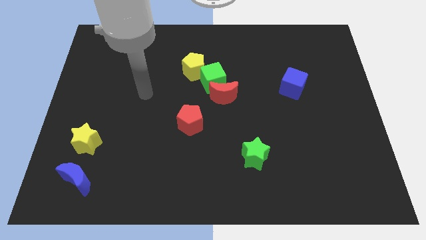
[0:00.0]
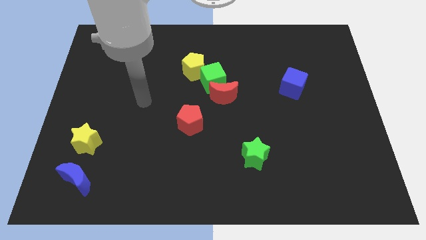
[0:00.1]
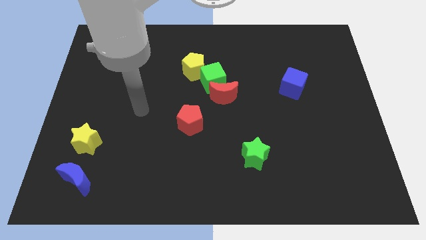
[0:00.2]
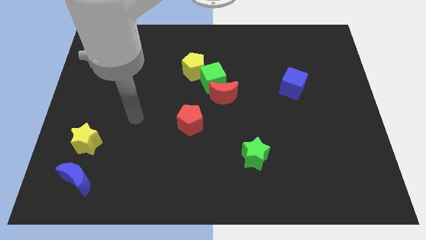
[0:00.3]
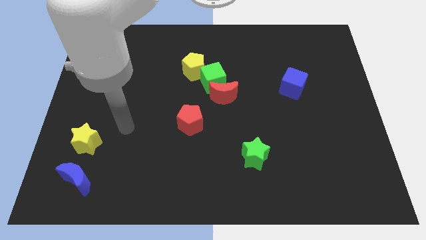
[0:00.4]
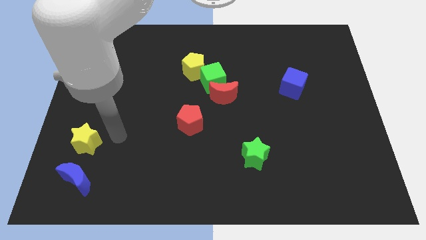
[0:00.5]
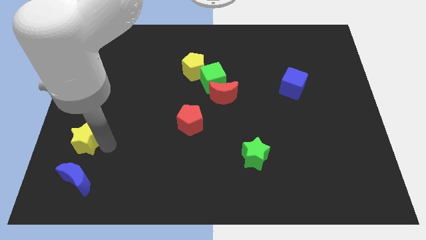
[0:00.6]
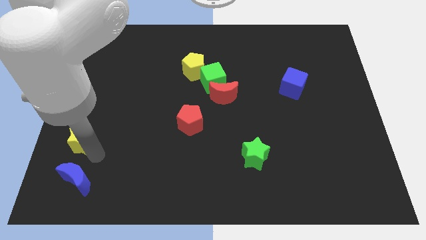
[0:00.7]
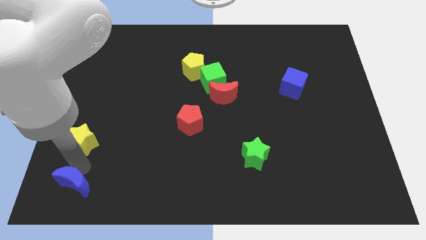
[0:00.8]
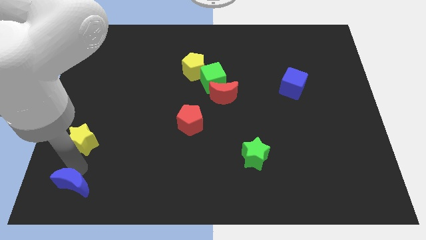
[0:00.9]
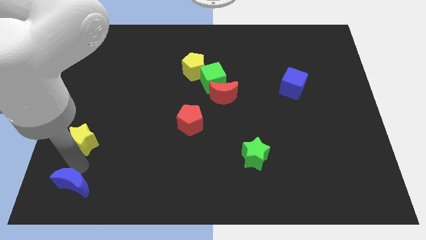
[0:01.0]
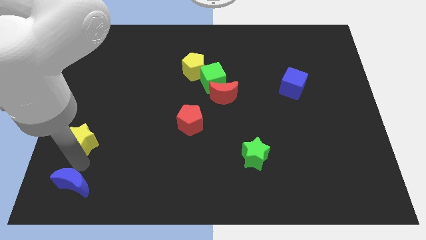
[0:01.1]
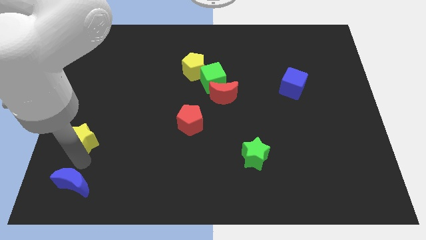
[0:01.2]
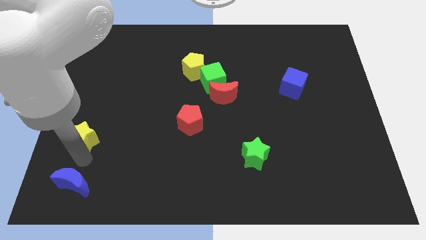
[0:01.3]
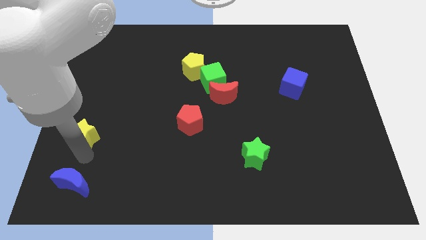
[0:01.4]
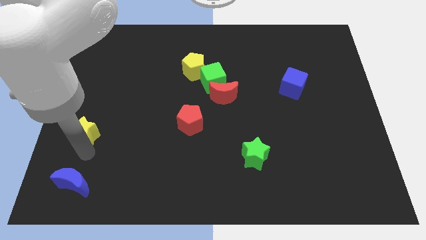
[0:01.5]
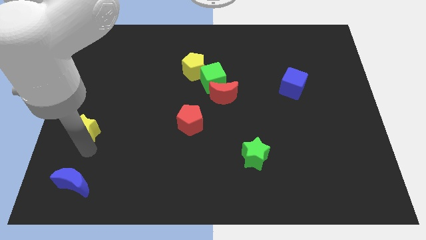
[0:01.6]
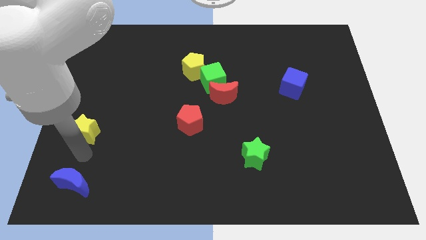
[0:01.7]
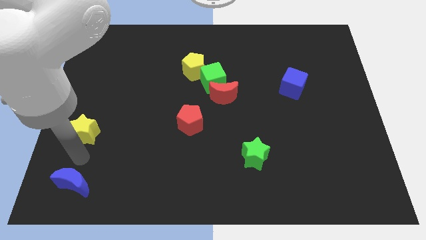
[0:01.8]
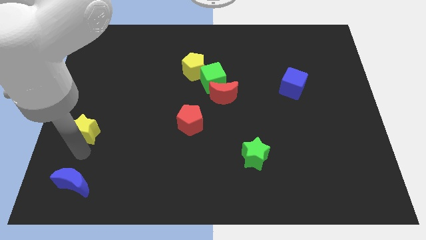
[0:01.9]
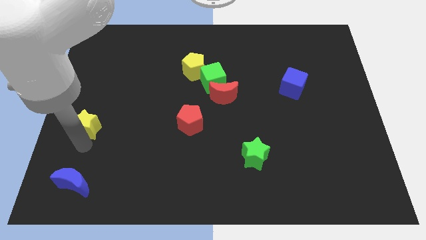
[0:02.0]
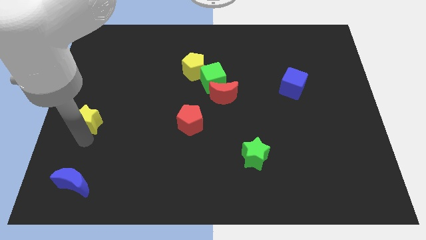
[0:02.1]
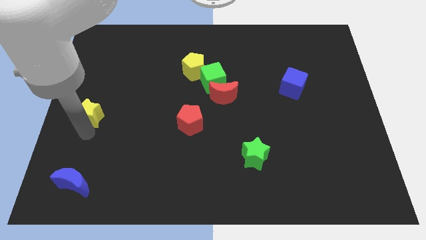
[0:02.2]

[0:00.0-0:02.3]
slightly slide the yellow star up

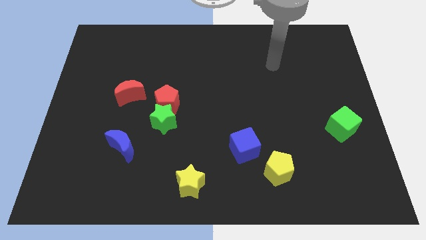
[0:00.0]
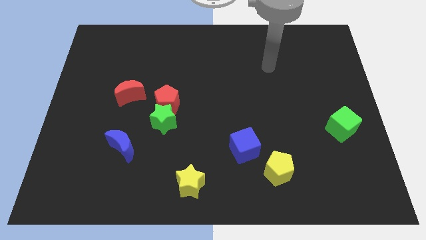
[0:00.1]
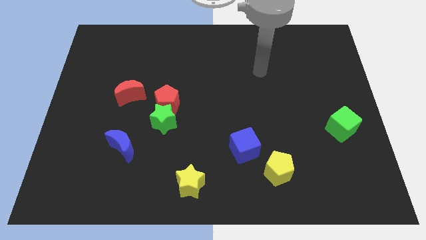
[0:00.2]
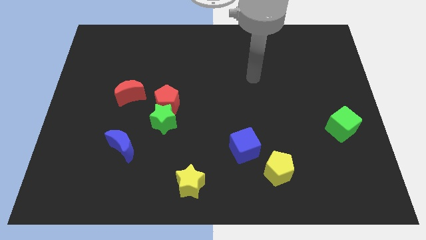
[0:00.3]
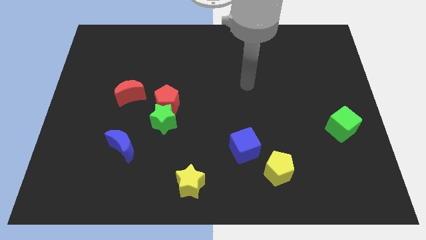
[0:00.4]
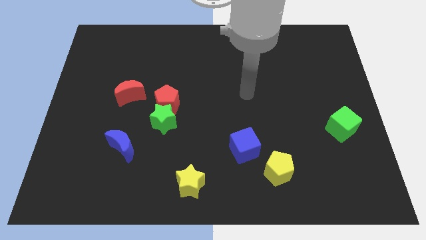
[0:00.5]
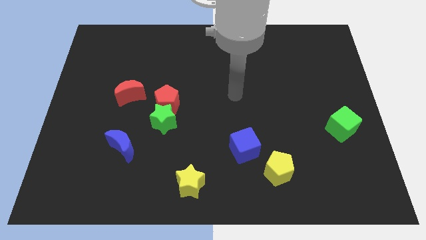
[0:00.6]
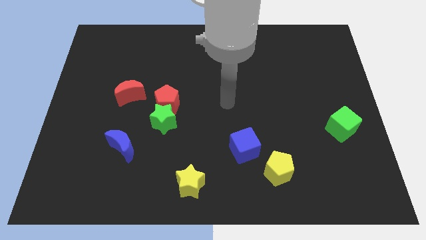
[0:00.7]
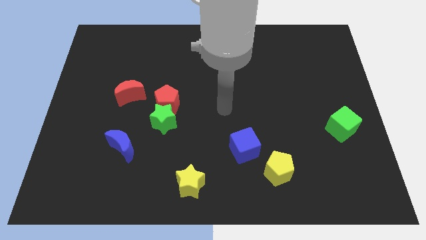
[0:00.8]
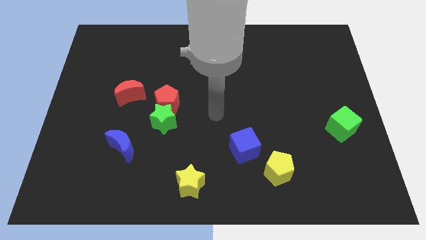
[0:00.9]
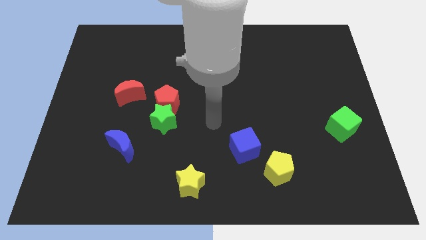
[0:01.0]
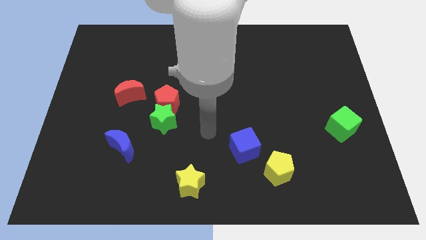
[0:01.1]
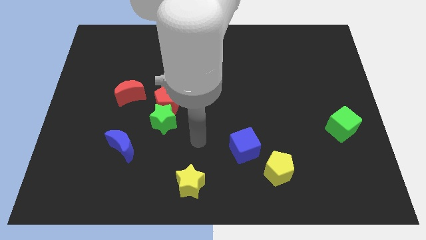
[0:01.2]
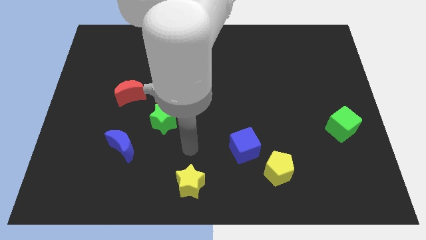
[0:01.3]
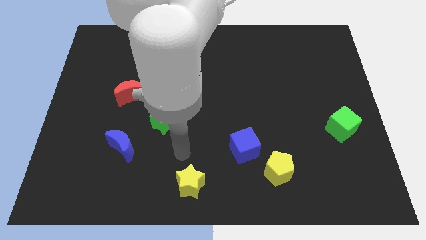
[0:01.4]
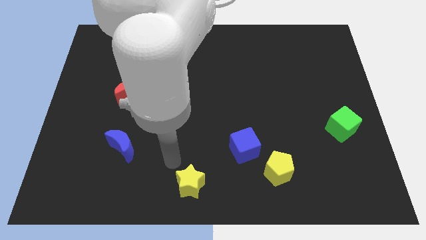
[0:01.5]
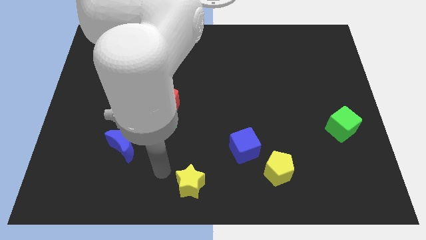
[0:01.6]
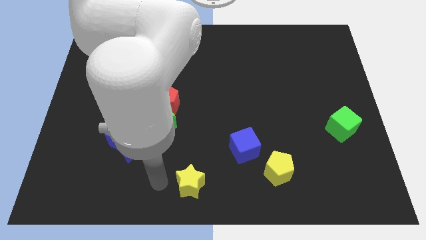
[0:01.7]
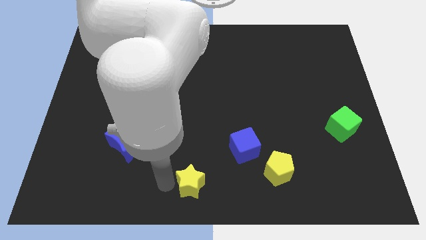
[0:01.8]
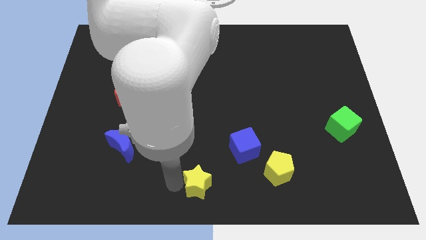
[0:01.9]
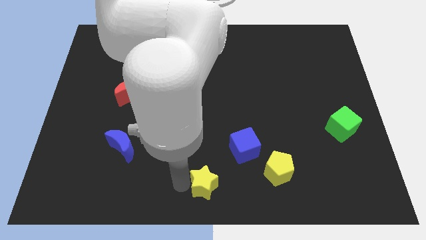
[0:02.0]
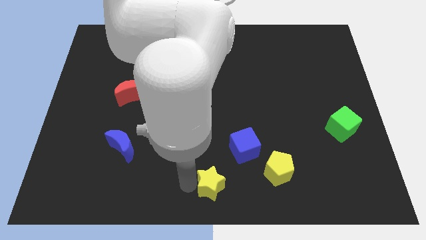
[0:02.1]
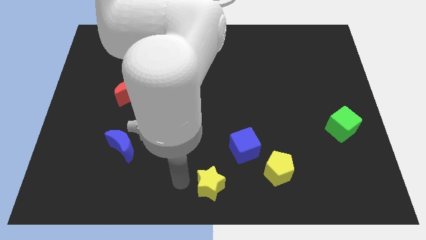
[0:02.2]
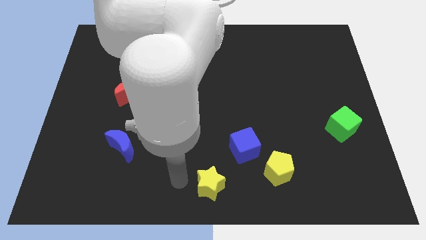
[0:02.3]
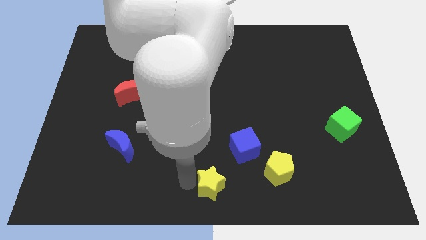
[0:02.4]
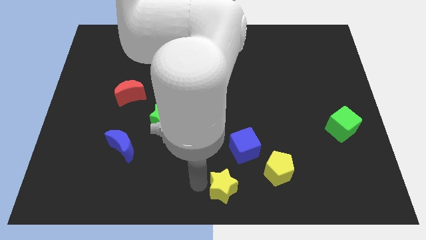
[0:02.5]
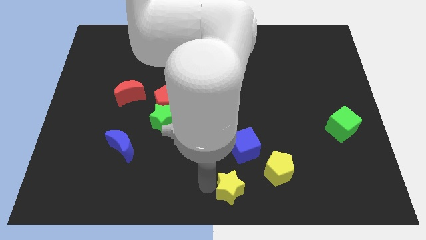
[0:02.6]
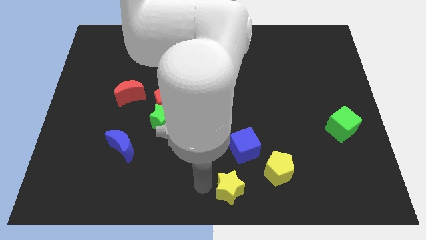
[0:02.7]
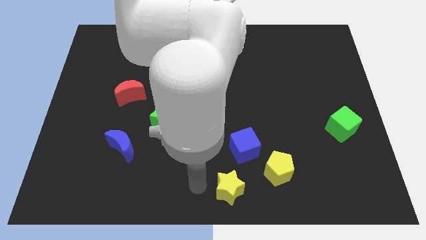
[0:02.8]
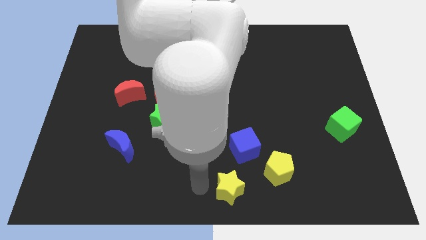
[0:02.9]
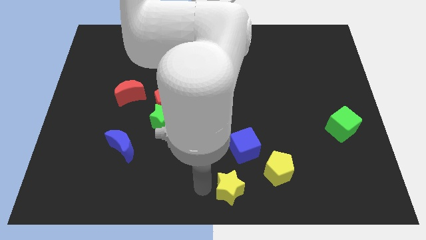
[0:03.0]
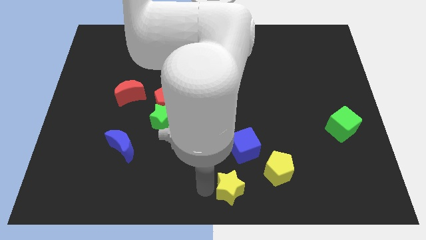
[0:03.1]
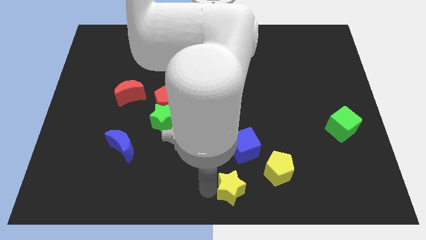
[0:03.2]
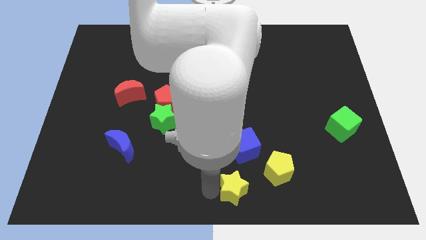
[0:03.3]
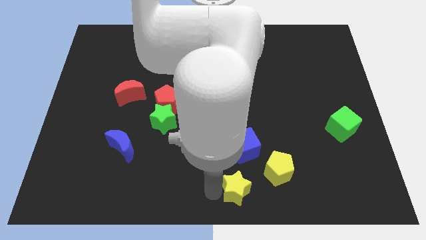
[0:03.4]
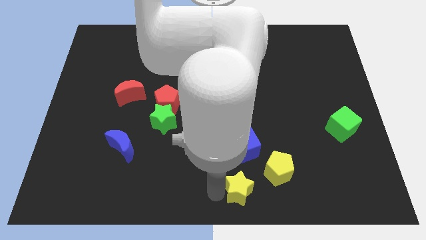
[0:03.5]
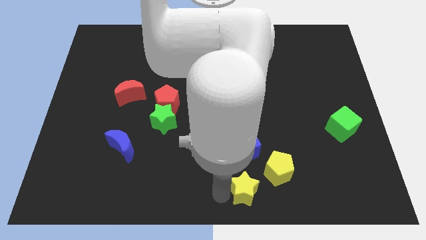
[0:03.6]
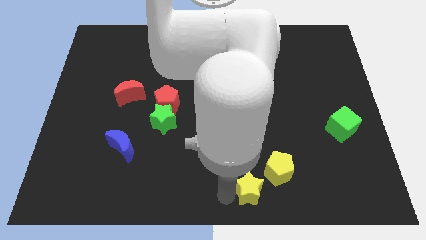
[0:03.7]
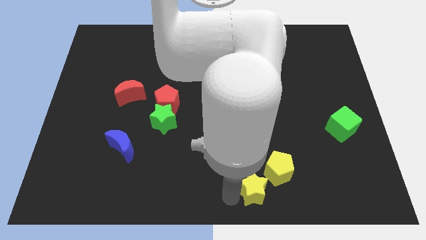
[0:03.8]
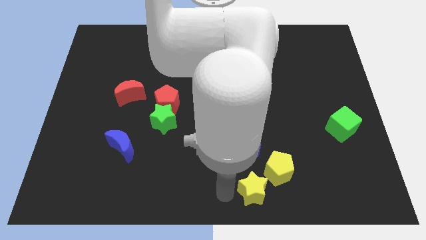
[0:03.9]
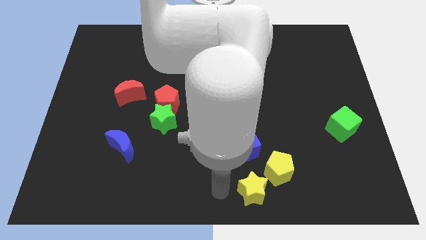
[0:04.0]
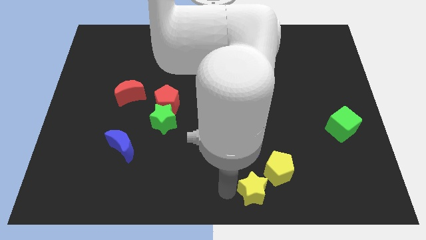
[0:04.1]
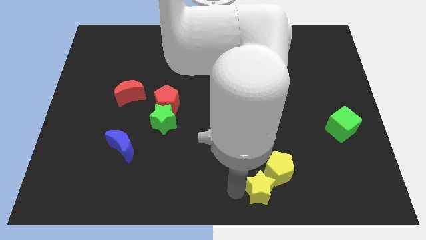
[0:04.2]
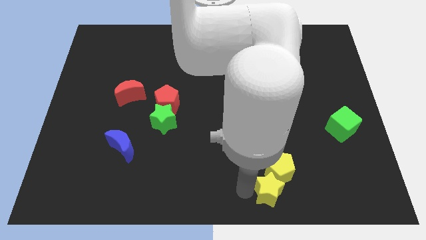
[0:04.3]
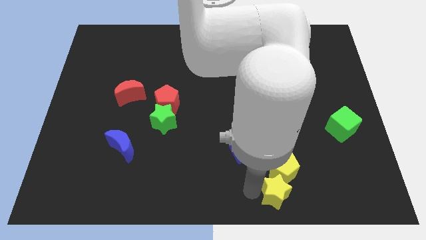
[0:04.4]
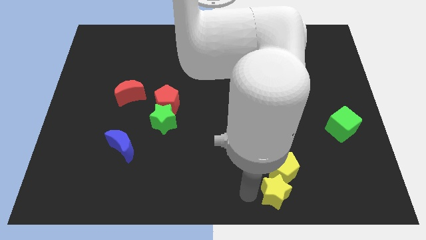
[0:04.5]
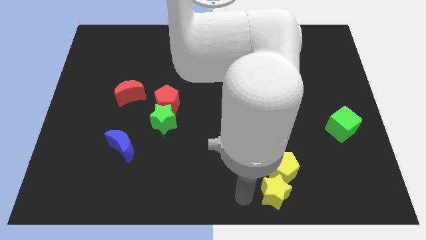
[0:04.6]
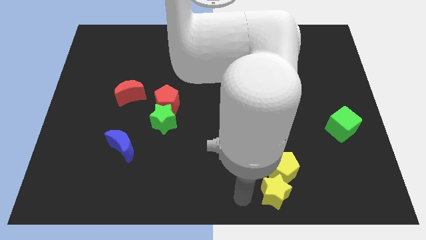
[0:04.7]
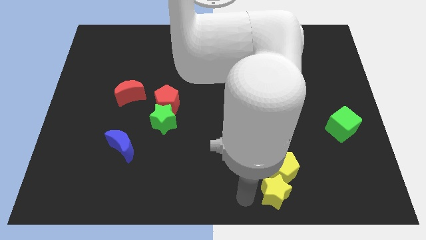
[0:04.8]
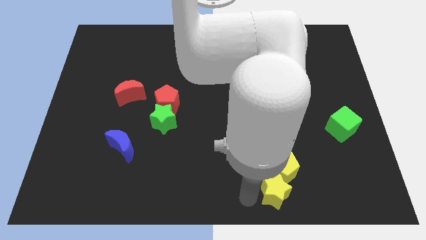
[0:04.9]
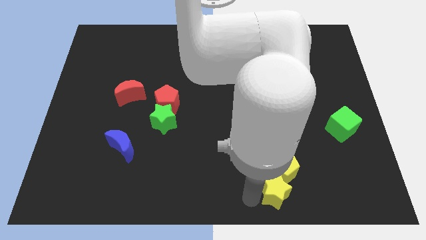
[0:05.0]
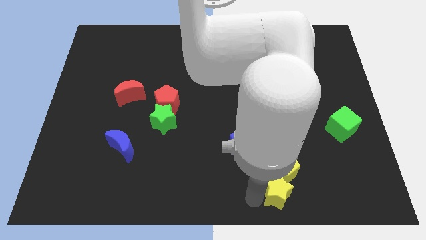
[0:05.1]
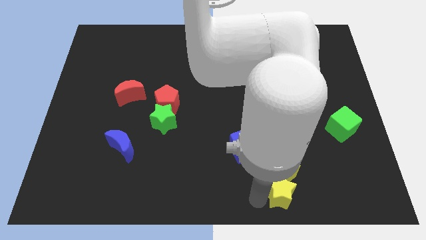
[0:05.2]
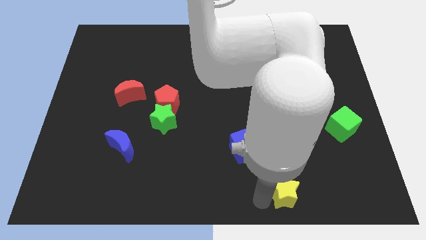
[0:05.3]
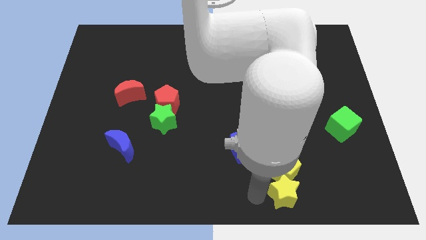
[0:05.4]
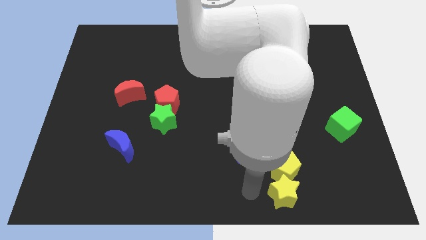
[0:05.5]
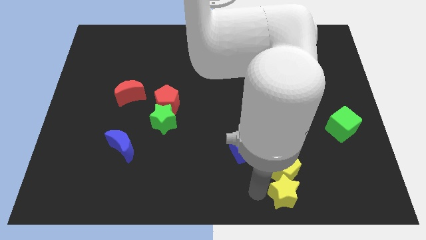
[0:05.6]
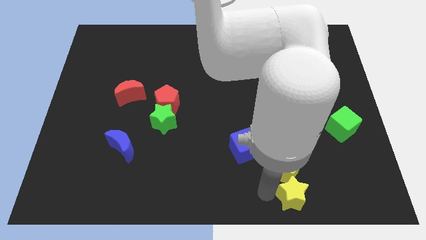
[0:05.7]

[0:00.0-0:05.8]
slide the yellow star right

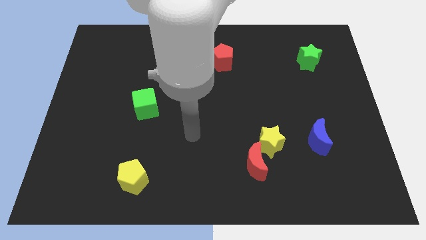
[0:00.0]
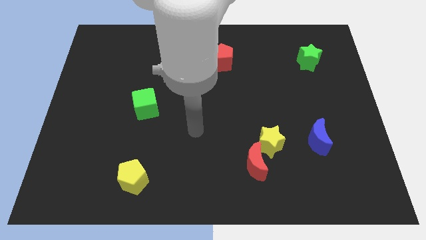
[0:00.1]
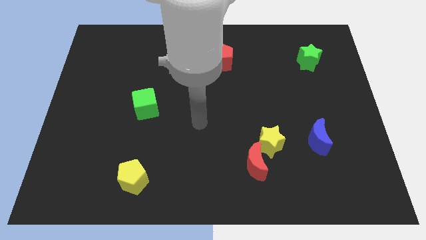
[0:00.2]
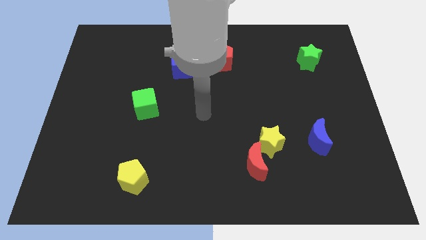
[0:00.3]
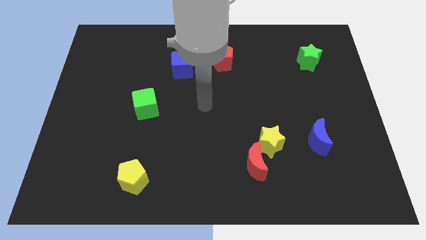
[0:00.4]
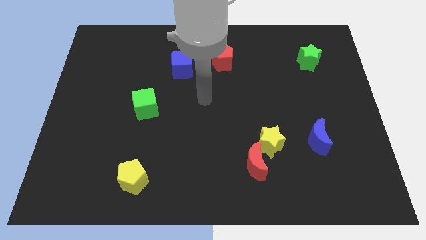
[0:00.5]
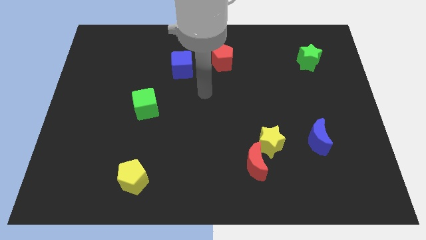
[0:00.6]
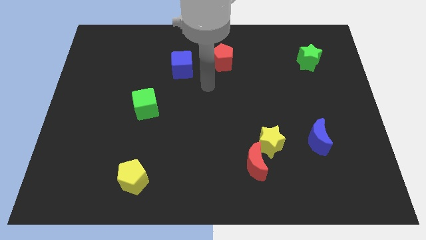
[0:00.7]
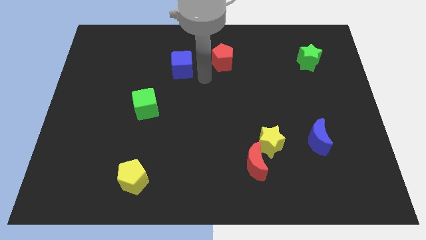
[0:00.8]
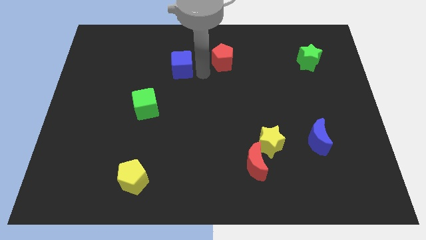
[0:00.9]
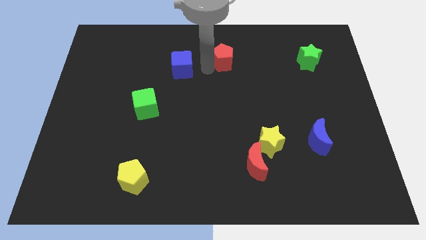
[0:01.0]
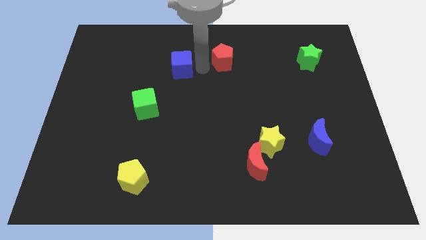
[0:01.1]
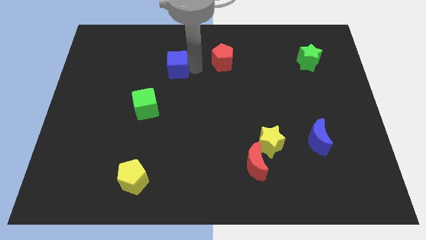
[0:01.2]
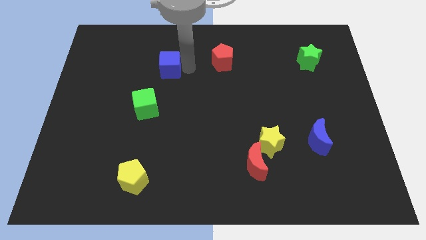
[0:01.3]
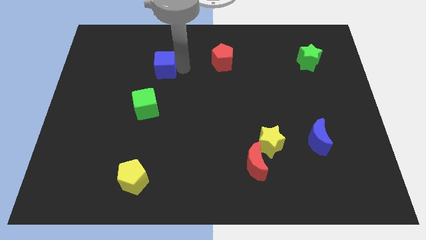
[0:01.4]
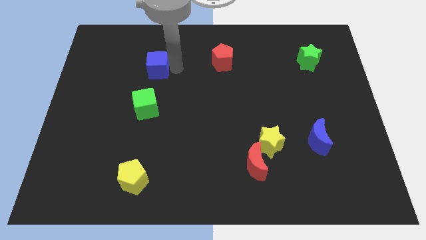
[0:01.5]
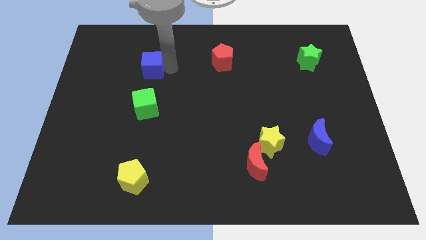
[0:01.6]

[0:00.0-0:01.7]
slide the blue cube somewhat to the left
